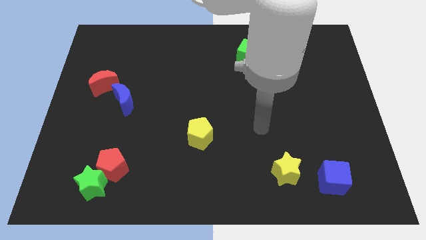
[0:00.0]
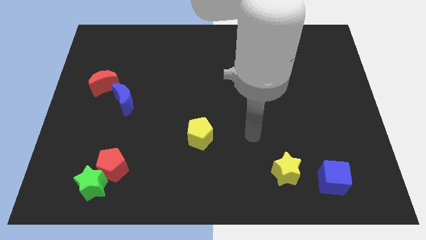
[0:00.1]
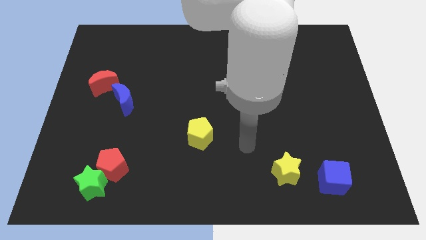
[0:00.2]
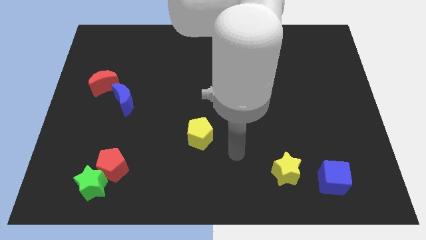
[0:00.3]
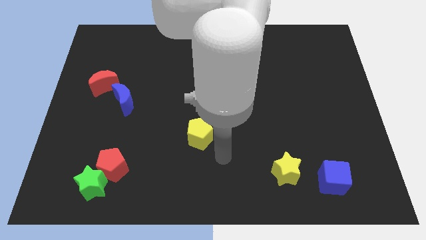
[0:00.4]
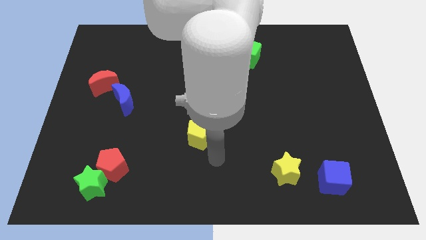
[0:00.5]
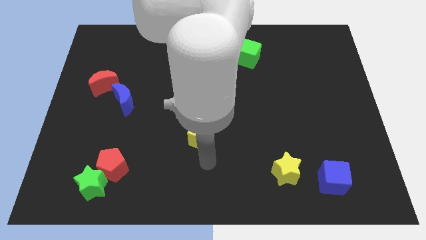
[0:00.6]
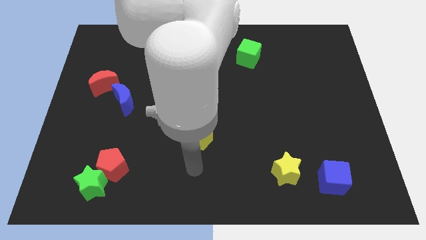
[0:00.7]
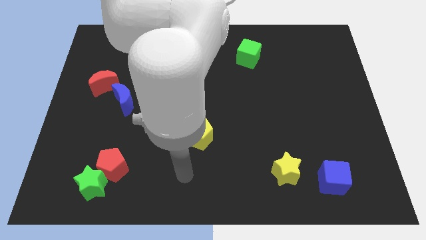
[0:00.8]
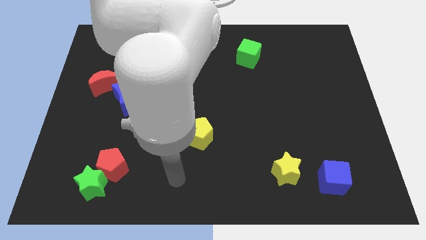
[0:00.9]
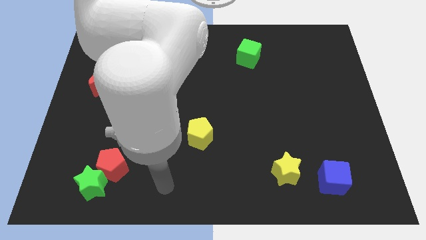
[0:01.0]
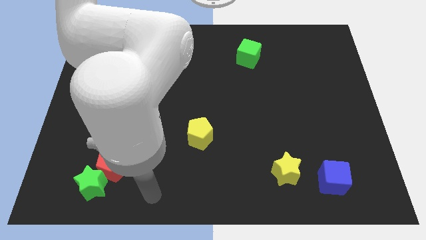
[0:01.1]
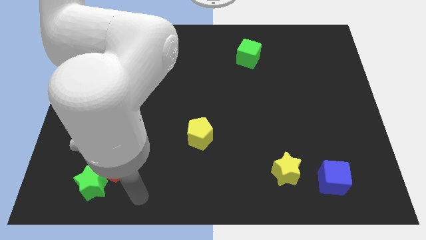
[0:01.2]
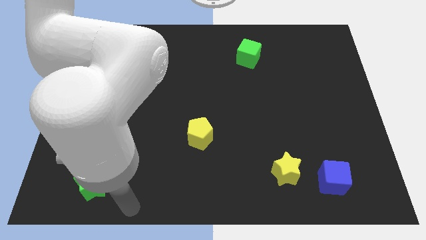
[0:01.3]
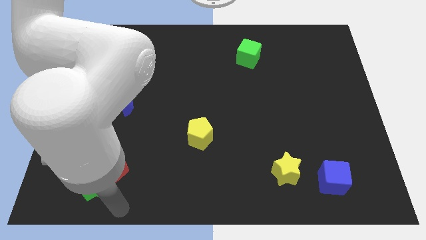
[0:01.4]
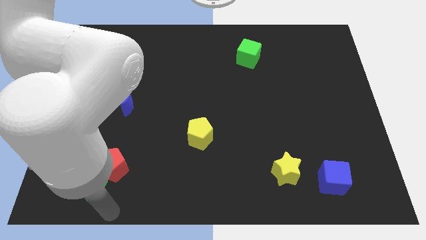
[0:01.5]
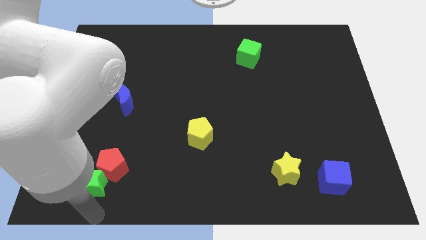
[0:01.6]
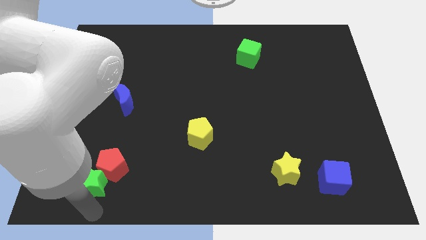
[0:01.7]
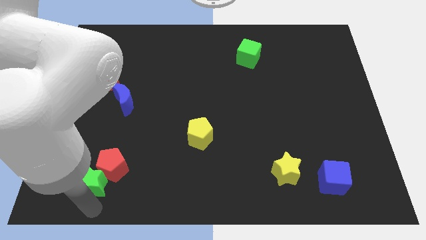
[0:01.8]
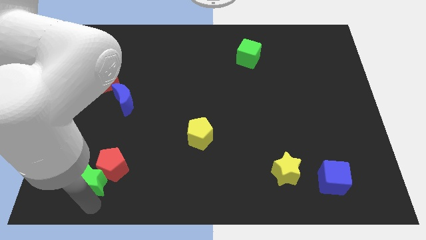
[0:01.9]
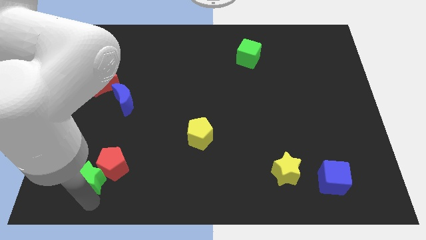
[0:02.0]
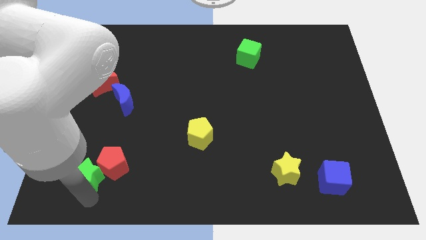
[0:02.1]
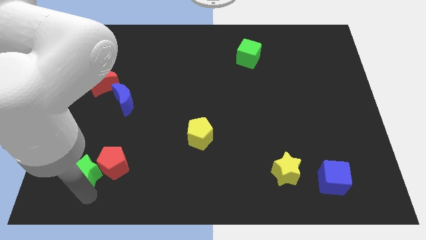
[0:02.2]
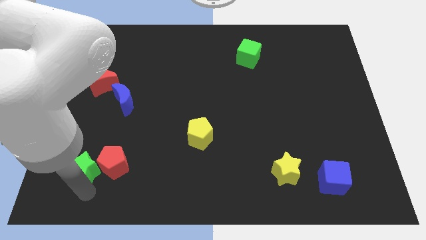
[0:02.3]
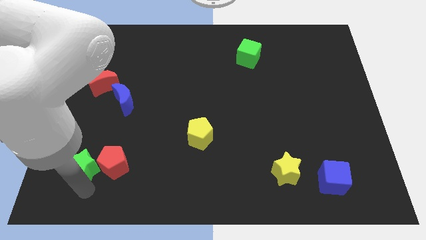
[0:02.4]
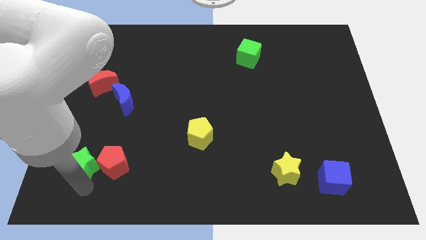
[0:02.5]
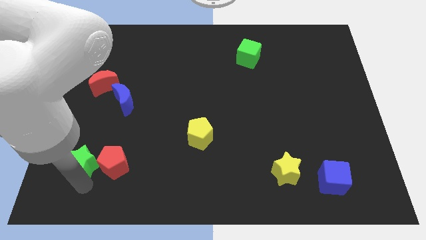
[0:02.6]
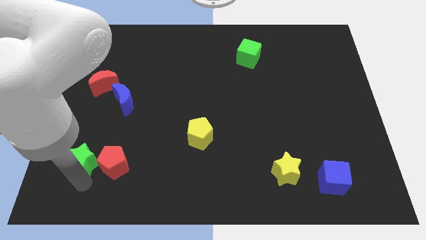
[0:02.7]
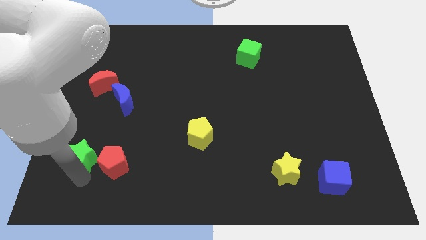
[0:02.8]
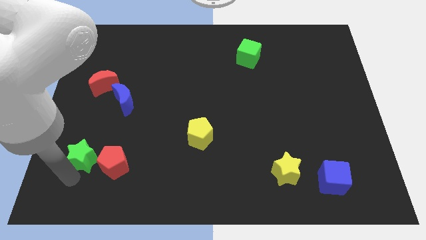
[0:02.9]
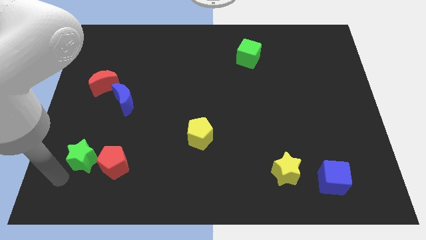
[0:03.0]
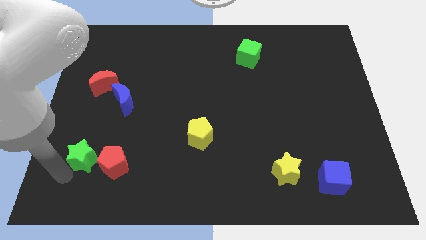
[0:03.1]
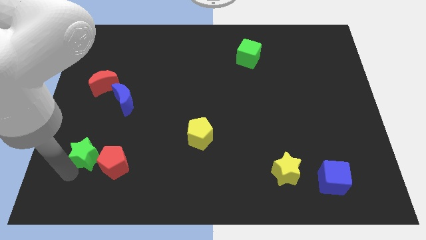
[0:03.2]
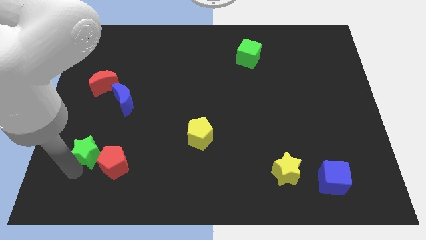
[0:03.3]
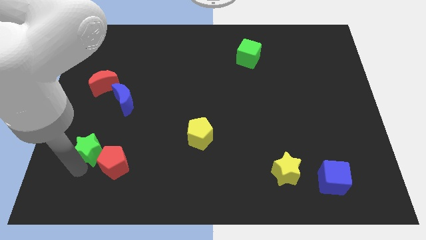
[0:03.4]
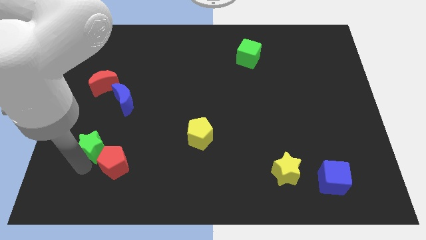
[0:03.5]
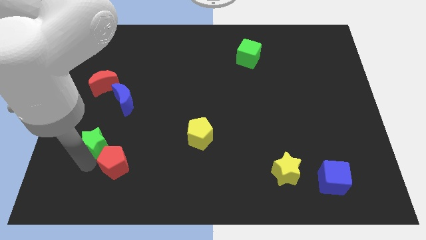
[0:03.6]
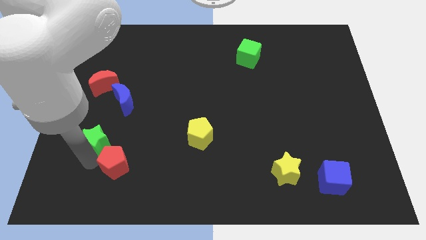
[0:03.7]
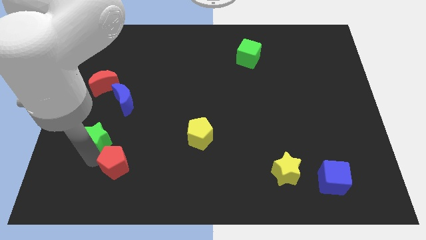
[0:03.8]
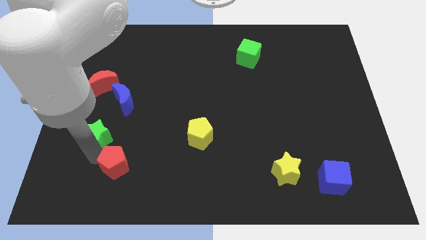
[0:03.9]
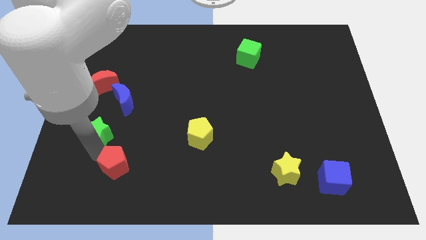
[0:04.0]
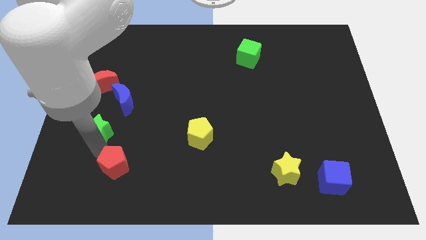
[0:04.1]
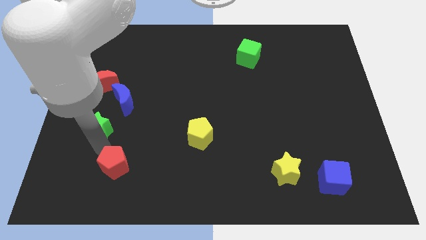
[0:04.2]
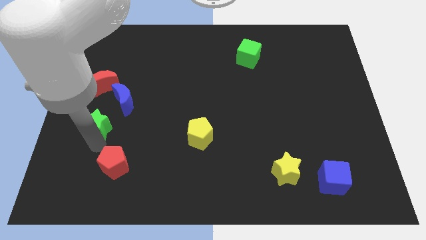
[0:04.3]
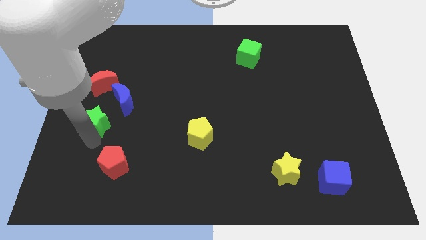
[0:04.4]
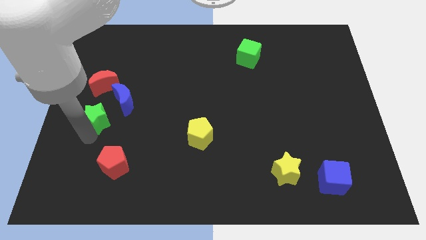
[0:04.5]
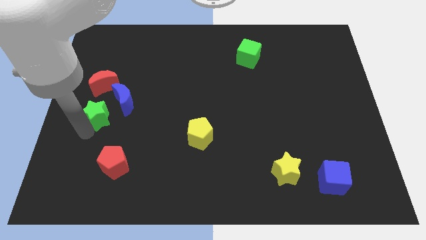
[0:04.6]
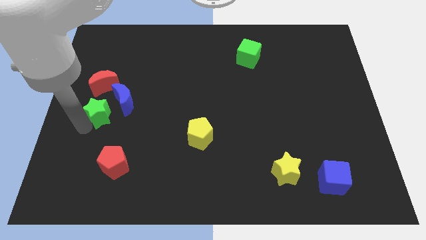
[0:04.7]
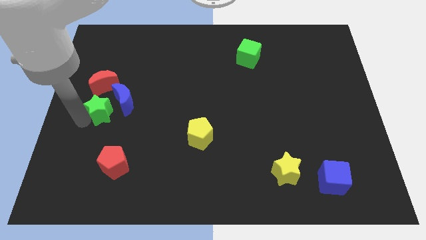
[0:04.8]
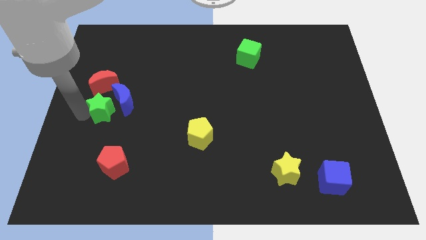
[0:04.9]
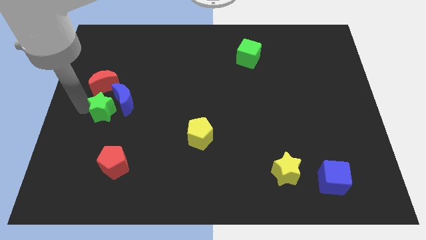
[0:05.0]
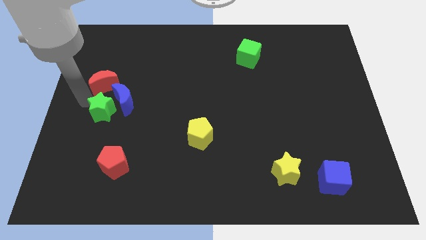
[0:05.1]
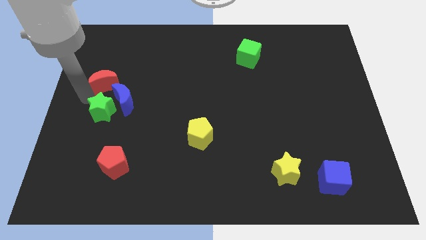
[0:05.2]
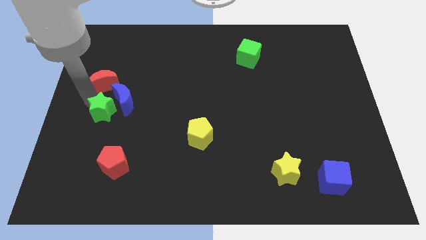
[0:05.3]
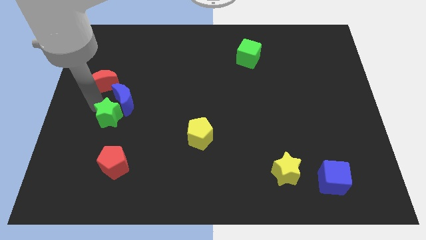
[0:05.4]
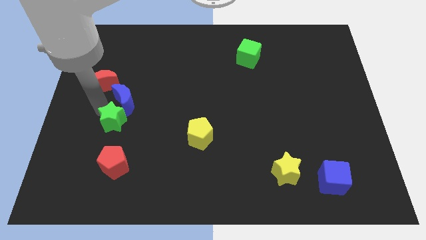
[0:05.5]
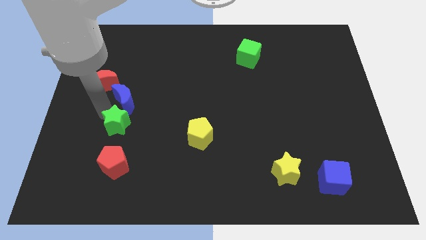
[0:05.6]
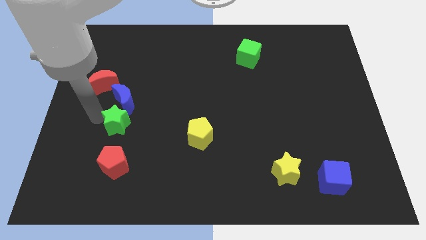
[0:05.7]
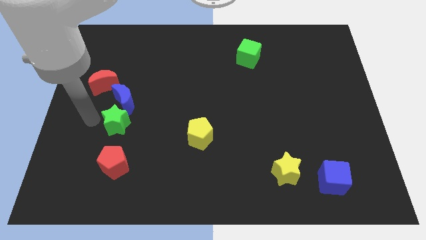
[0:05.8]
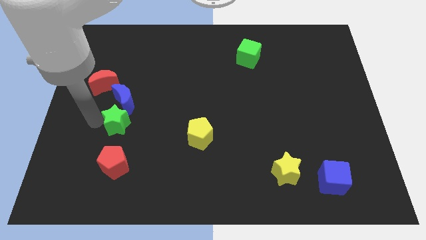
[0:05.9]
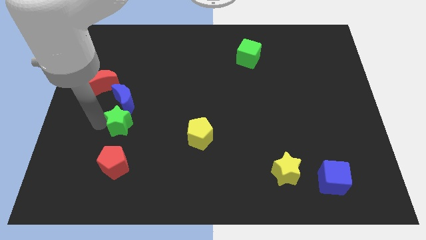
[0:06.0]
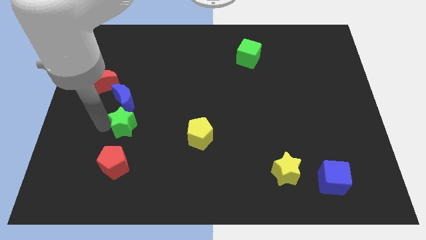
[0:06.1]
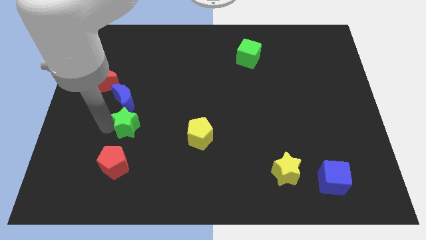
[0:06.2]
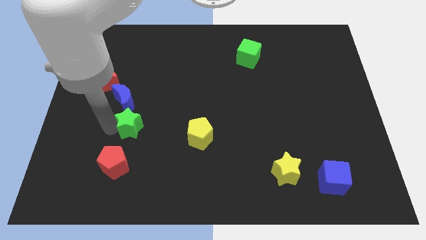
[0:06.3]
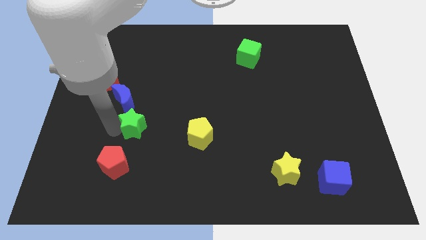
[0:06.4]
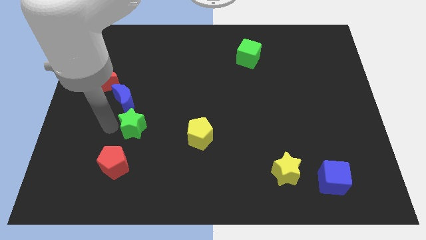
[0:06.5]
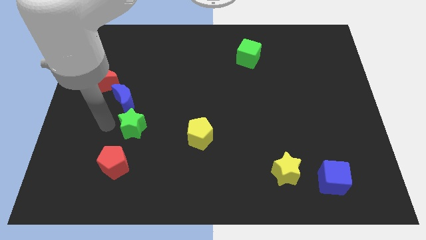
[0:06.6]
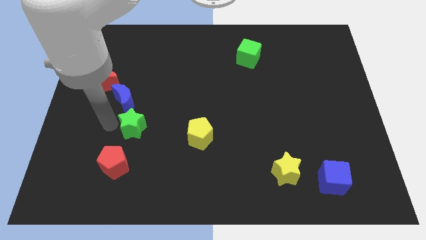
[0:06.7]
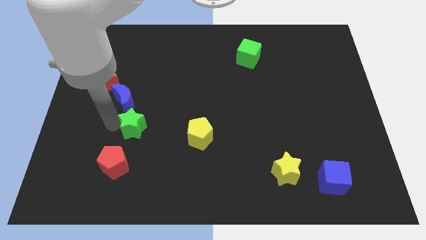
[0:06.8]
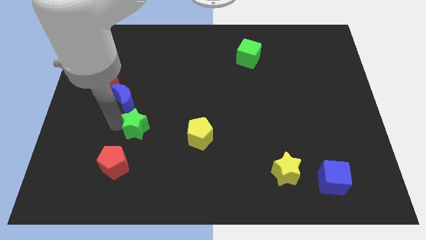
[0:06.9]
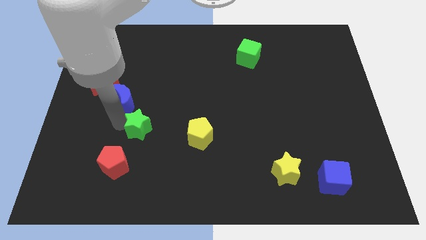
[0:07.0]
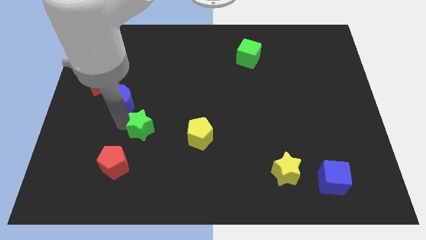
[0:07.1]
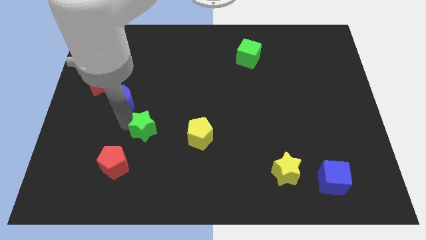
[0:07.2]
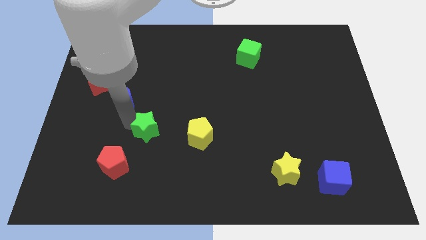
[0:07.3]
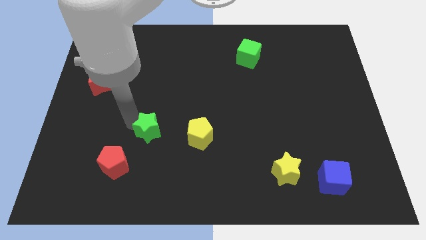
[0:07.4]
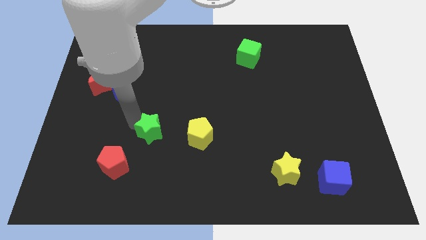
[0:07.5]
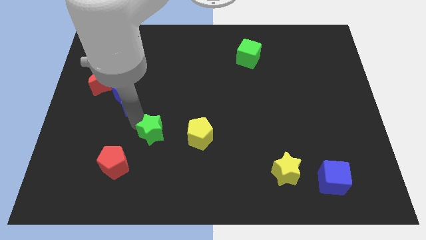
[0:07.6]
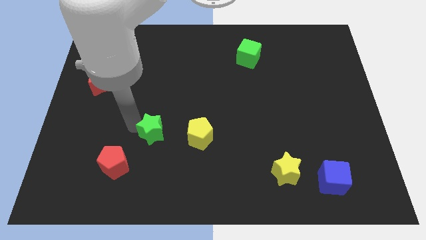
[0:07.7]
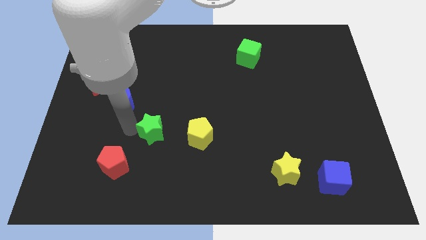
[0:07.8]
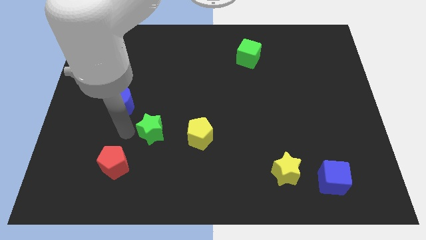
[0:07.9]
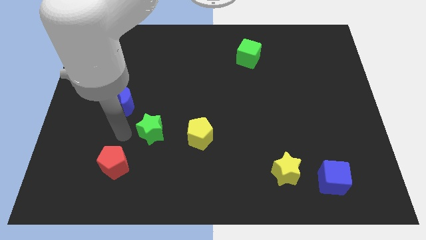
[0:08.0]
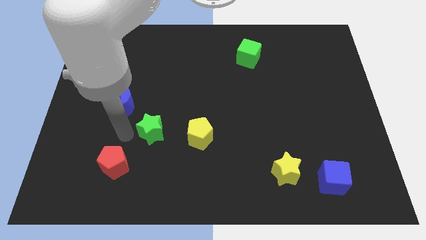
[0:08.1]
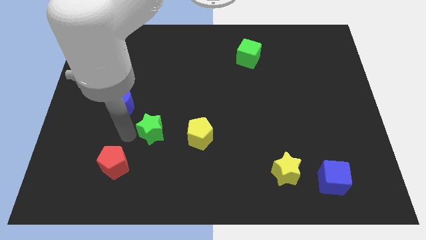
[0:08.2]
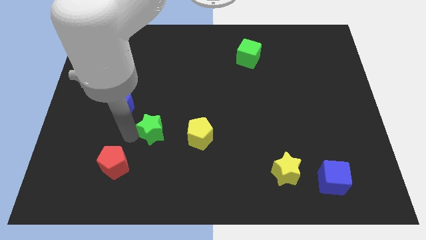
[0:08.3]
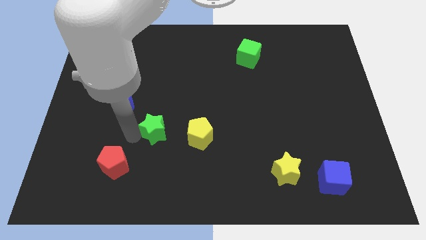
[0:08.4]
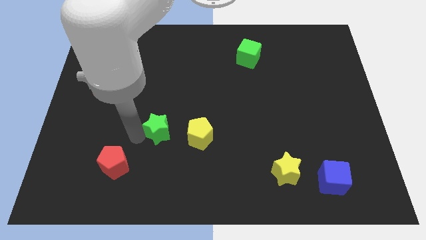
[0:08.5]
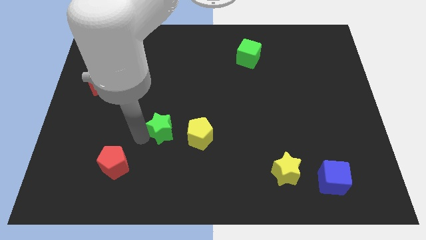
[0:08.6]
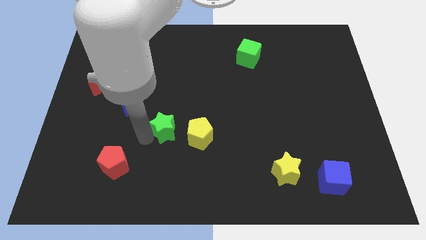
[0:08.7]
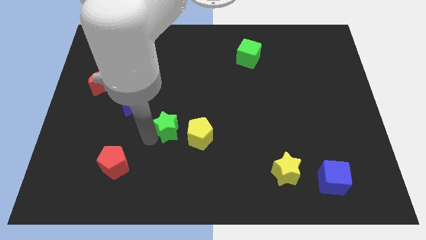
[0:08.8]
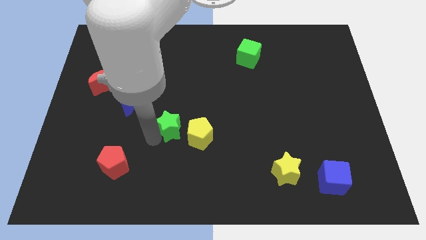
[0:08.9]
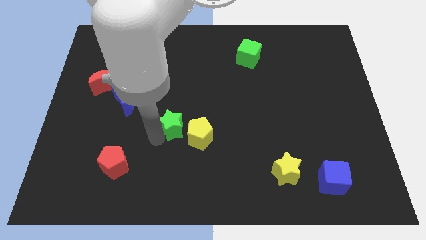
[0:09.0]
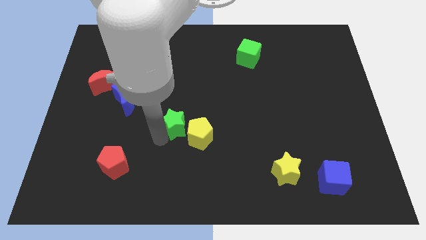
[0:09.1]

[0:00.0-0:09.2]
put the green star to the yellow pentagon
